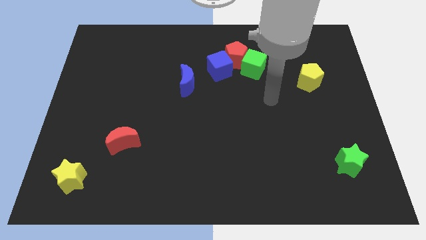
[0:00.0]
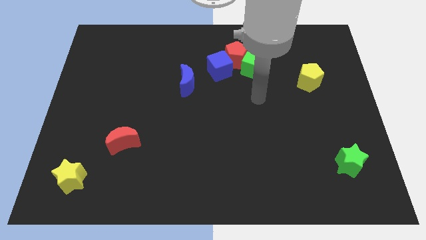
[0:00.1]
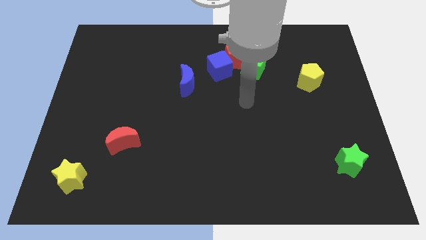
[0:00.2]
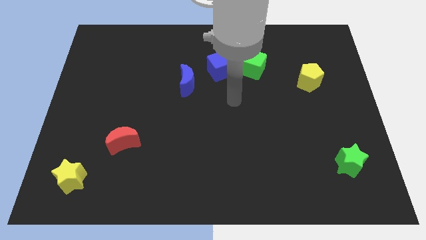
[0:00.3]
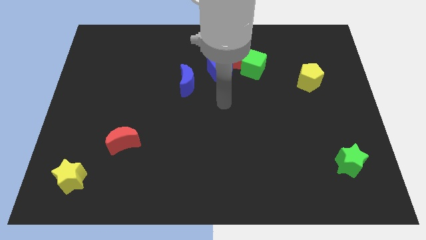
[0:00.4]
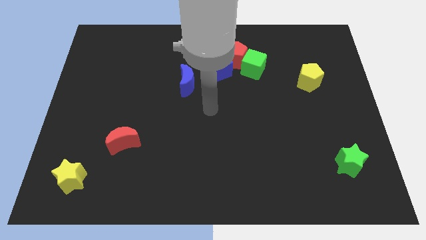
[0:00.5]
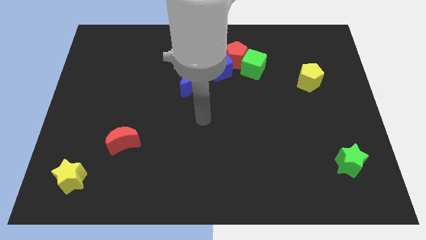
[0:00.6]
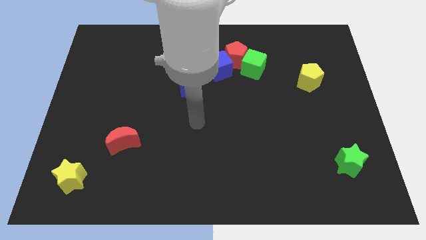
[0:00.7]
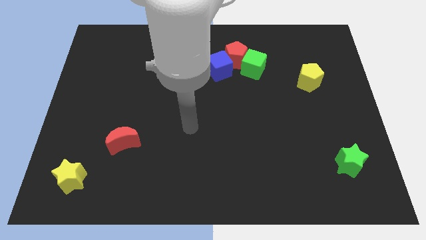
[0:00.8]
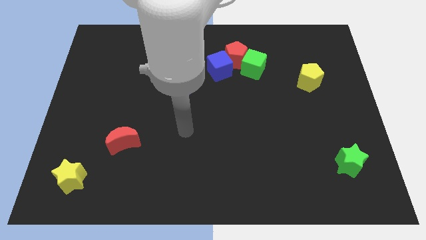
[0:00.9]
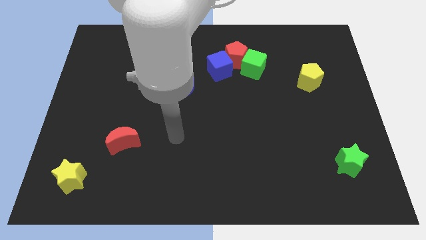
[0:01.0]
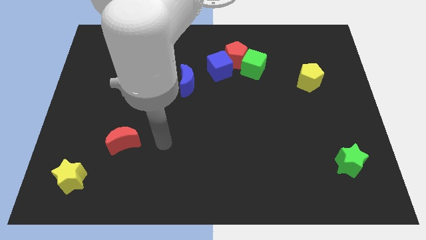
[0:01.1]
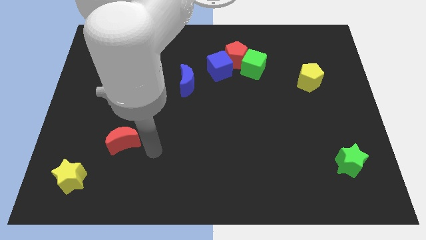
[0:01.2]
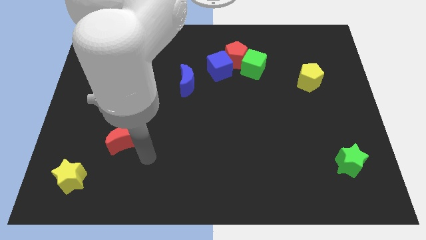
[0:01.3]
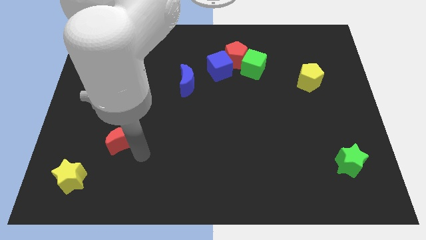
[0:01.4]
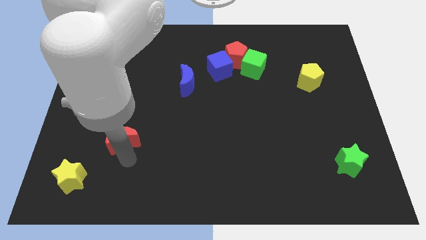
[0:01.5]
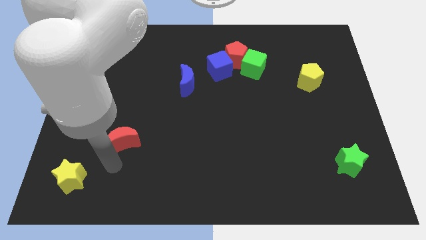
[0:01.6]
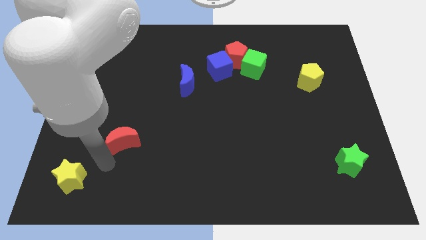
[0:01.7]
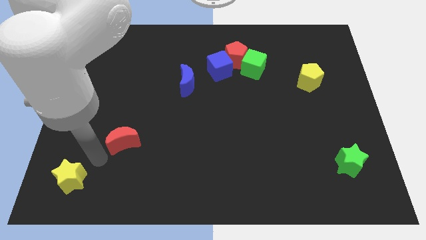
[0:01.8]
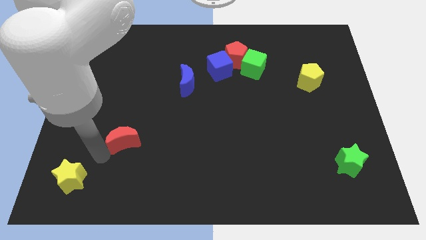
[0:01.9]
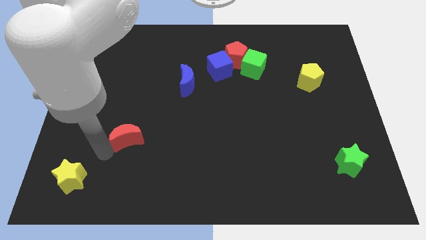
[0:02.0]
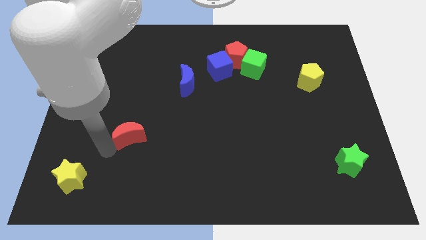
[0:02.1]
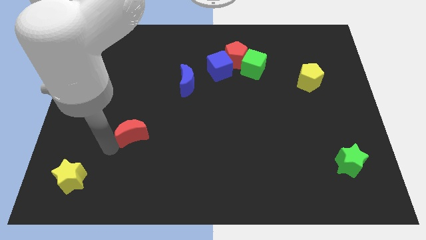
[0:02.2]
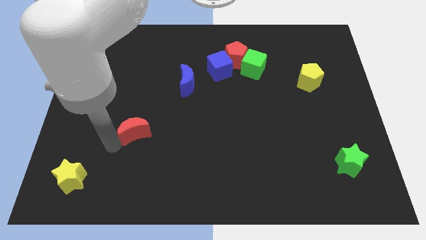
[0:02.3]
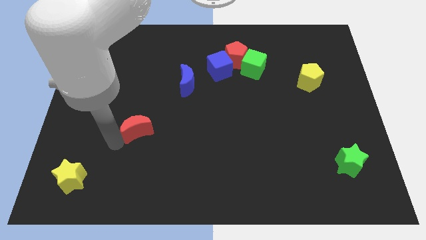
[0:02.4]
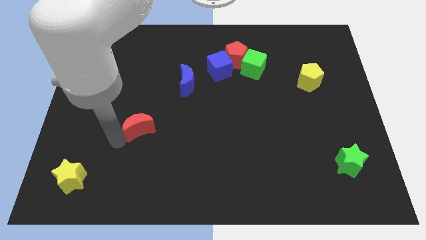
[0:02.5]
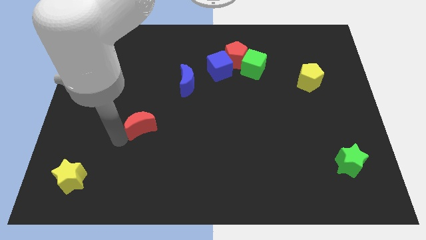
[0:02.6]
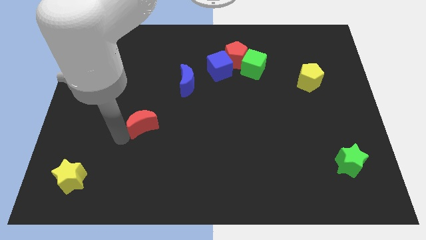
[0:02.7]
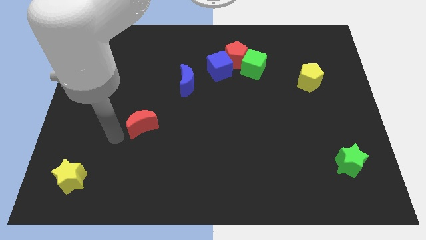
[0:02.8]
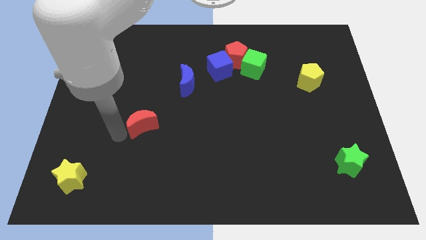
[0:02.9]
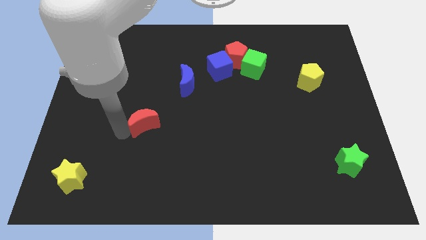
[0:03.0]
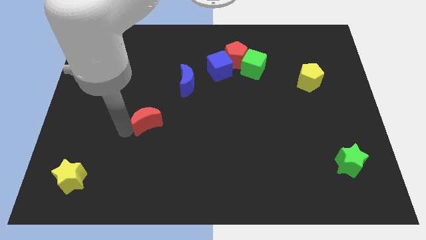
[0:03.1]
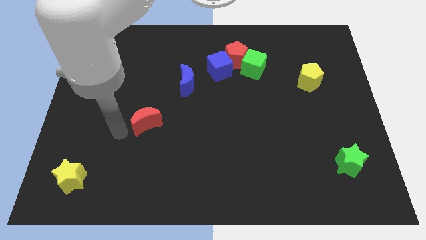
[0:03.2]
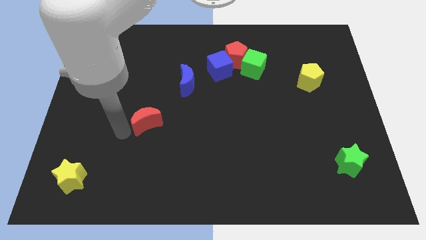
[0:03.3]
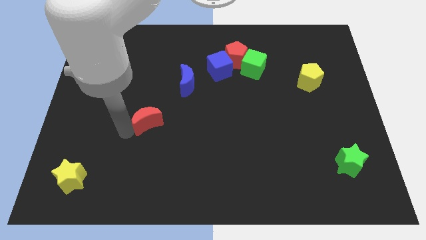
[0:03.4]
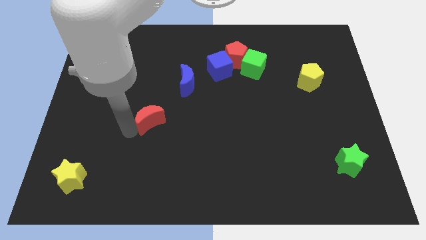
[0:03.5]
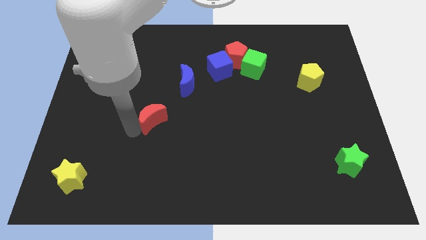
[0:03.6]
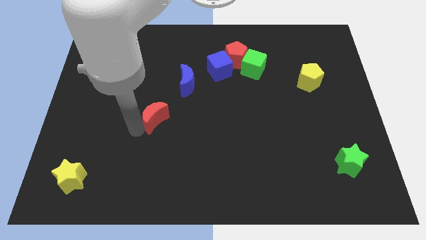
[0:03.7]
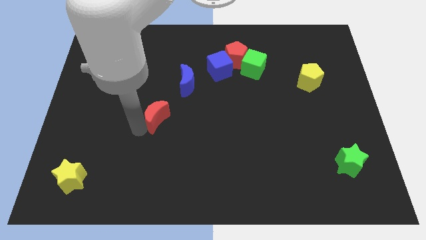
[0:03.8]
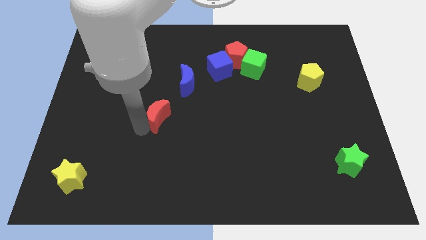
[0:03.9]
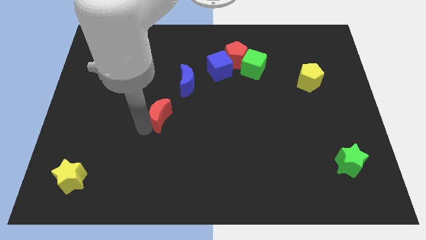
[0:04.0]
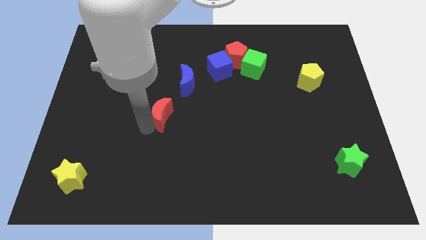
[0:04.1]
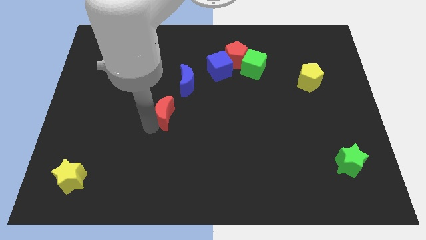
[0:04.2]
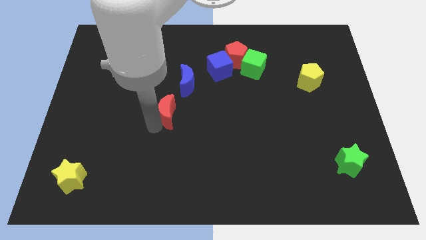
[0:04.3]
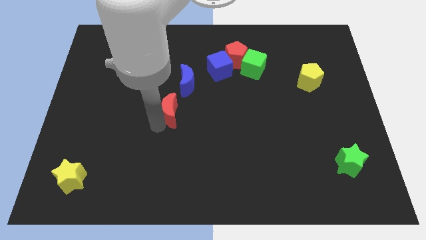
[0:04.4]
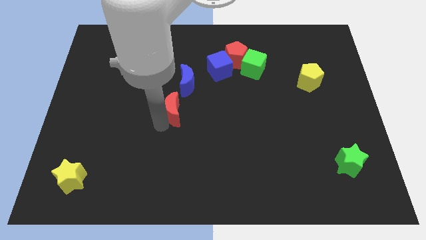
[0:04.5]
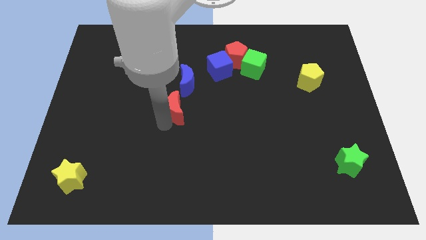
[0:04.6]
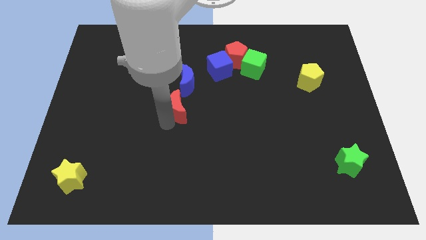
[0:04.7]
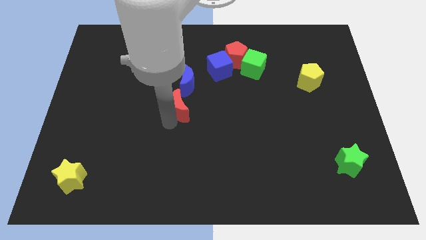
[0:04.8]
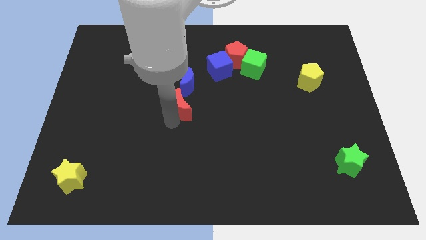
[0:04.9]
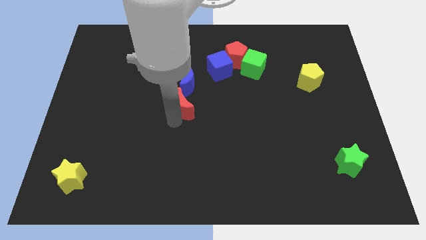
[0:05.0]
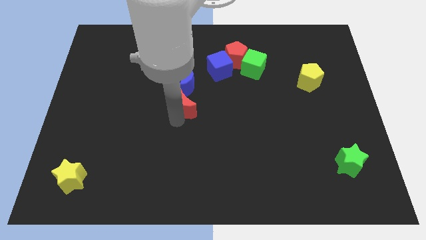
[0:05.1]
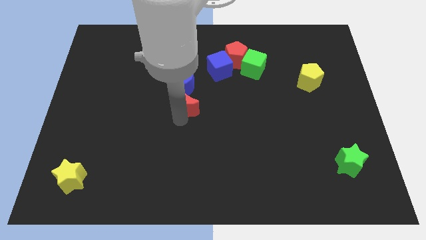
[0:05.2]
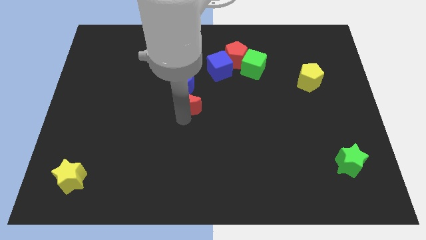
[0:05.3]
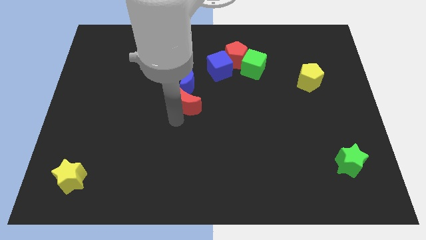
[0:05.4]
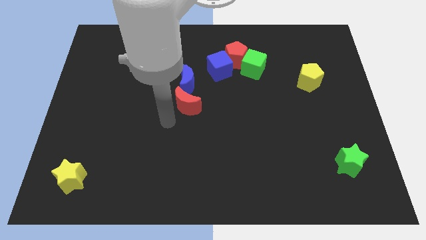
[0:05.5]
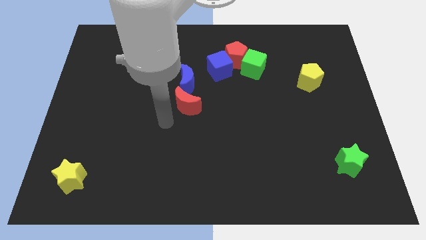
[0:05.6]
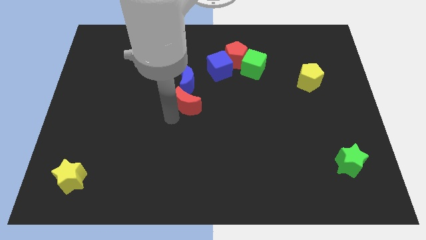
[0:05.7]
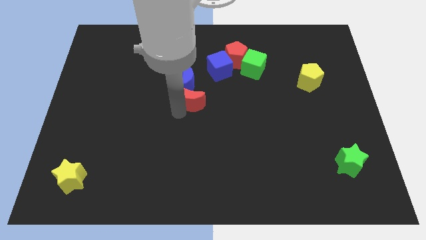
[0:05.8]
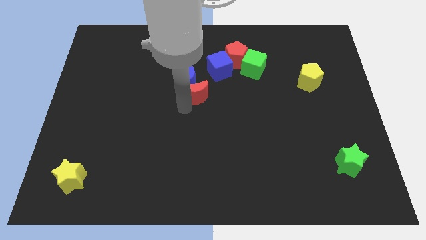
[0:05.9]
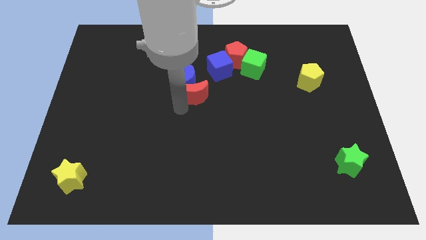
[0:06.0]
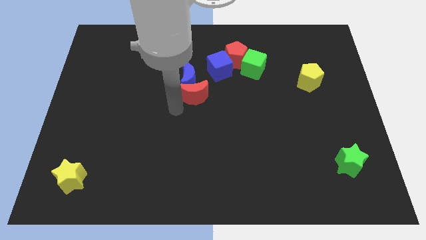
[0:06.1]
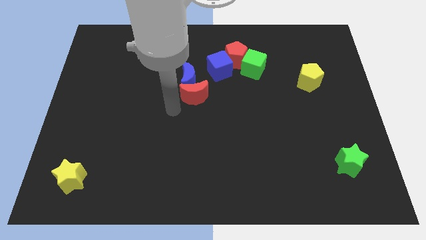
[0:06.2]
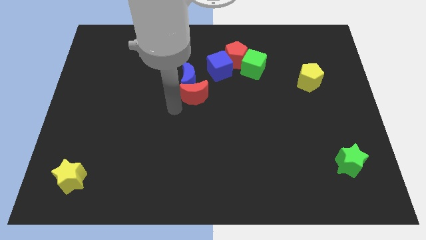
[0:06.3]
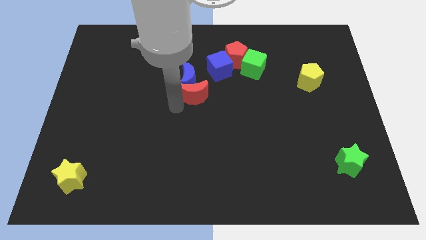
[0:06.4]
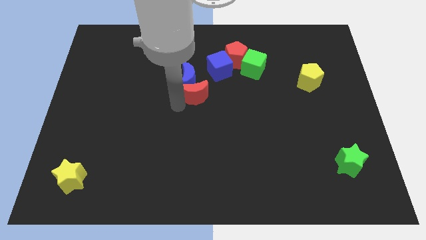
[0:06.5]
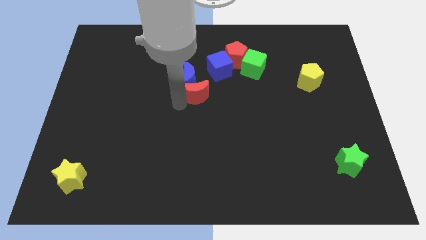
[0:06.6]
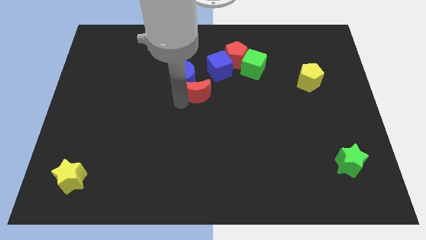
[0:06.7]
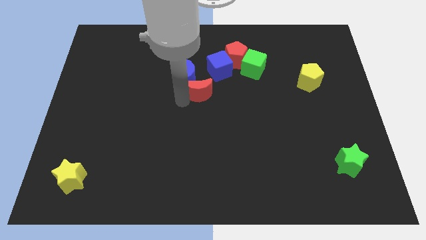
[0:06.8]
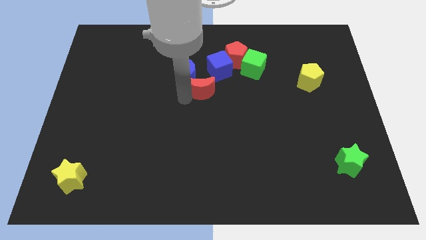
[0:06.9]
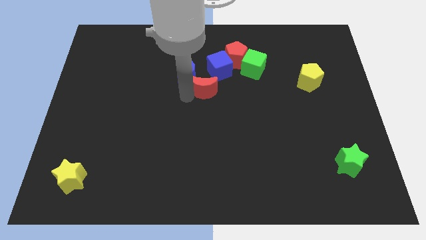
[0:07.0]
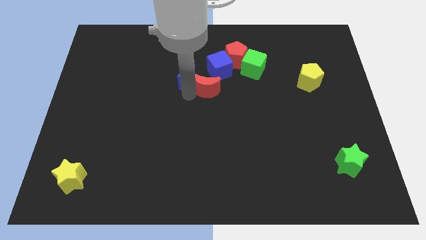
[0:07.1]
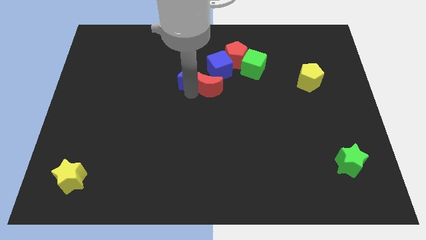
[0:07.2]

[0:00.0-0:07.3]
put the red moon to the bottom left side of the red pentagon

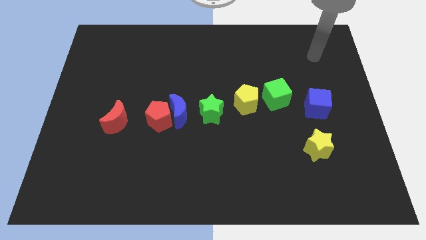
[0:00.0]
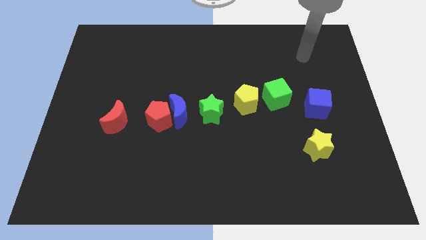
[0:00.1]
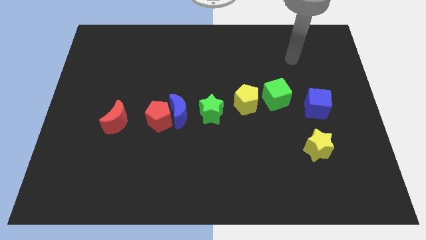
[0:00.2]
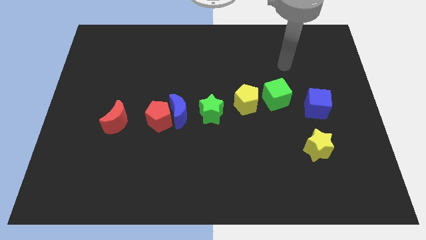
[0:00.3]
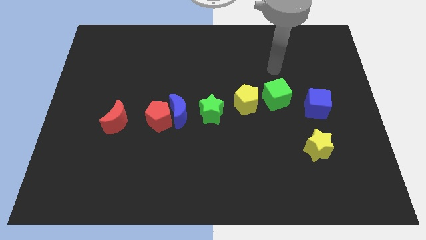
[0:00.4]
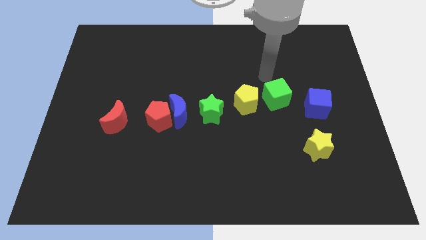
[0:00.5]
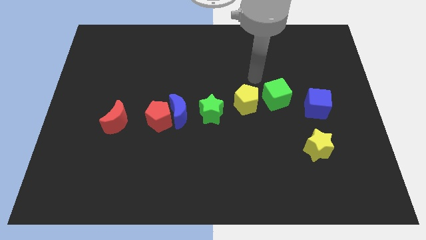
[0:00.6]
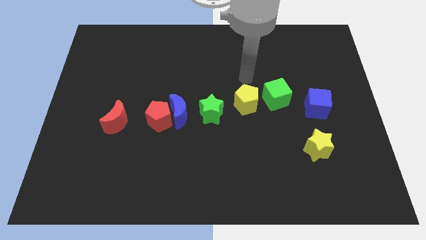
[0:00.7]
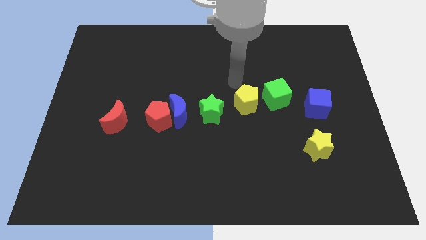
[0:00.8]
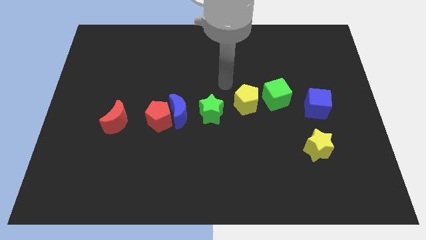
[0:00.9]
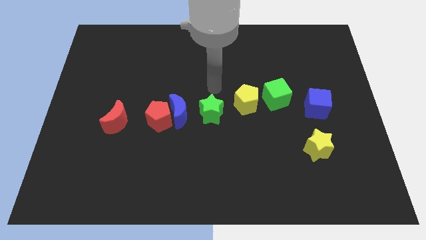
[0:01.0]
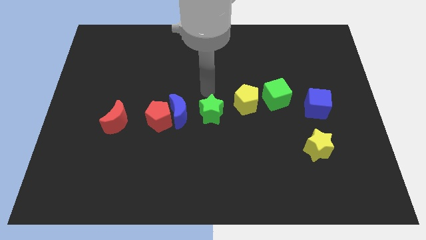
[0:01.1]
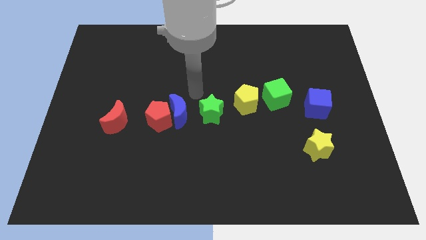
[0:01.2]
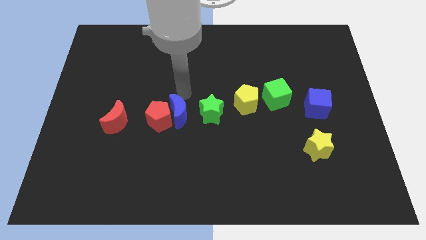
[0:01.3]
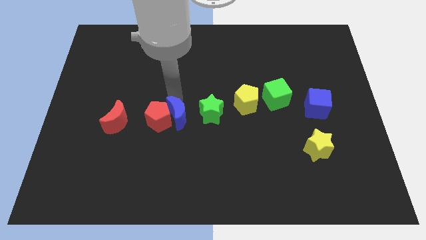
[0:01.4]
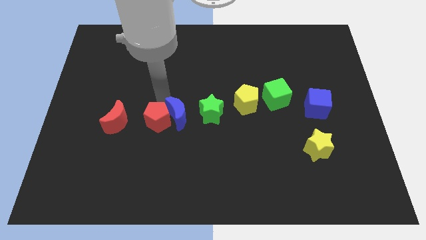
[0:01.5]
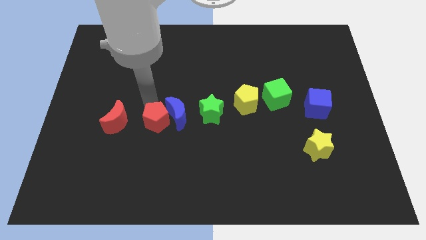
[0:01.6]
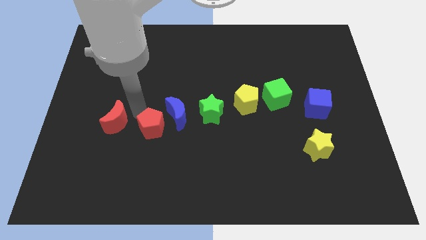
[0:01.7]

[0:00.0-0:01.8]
put the red moon diagonally up and to the left of the red pentagon
